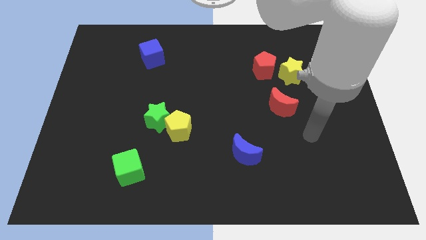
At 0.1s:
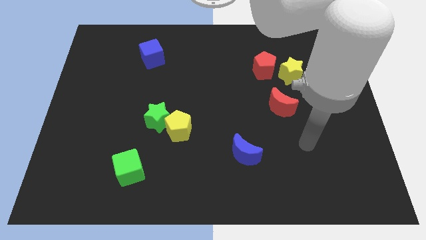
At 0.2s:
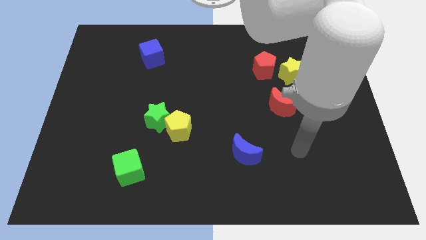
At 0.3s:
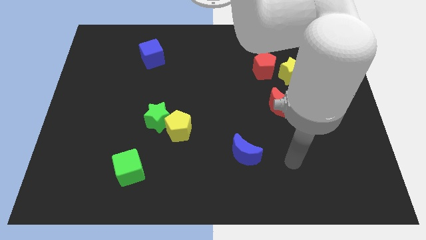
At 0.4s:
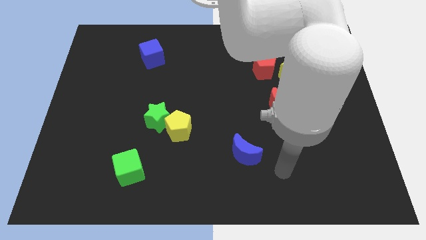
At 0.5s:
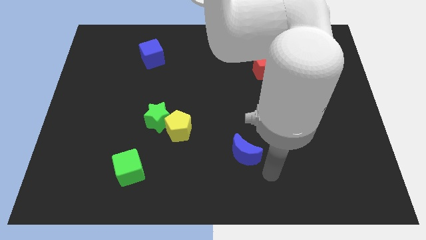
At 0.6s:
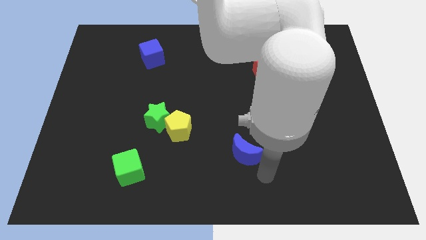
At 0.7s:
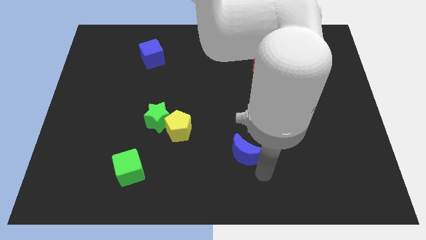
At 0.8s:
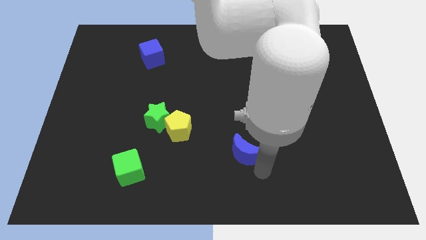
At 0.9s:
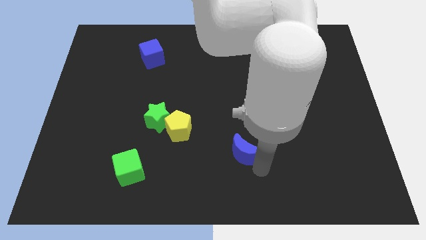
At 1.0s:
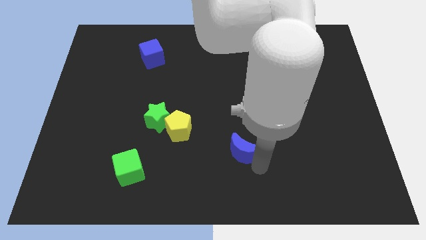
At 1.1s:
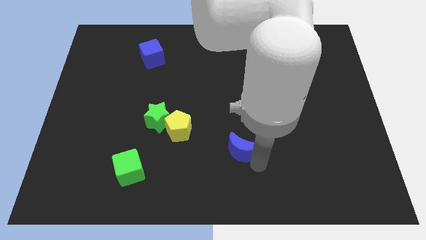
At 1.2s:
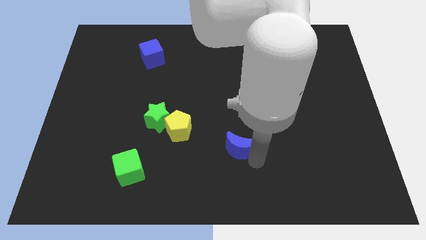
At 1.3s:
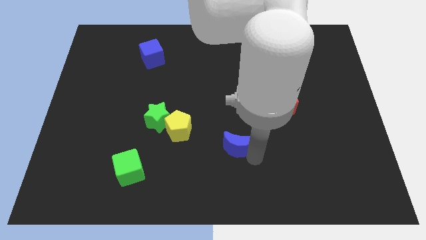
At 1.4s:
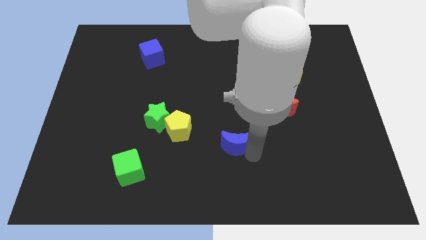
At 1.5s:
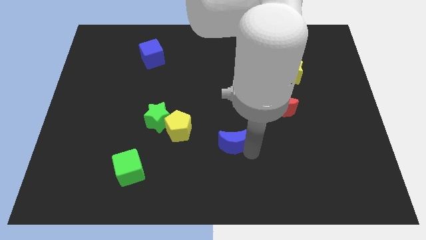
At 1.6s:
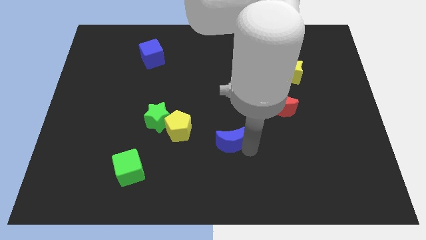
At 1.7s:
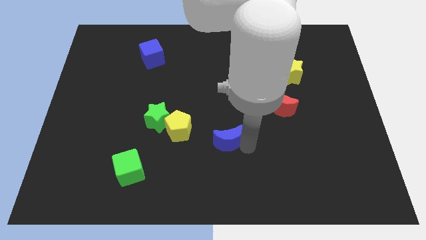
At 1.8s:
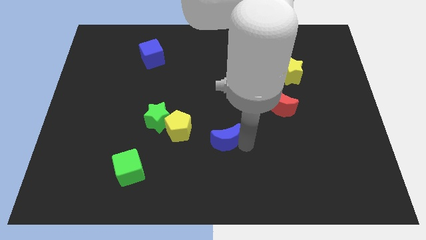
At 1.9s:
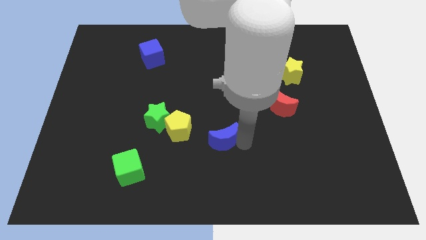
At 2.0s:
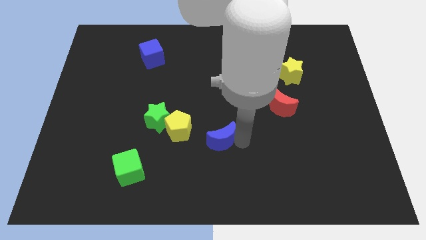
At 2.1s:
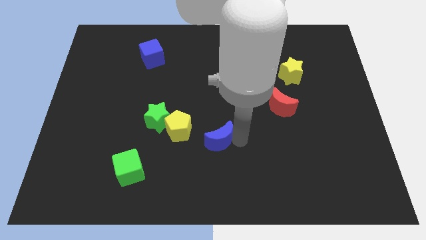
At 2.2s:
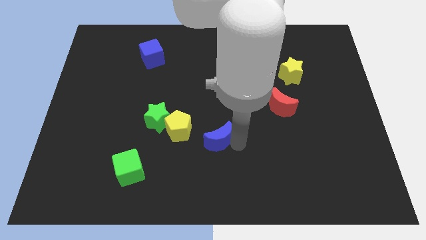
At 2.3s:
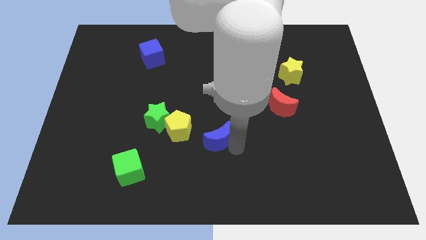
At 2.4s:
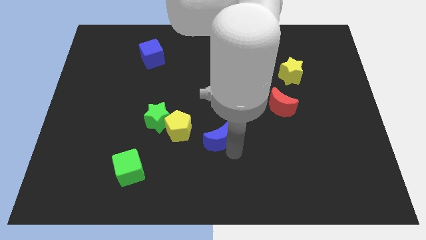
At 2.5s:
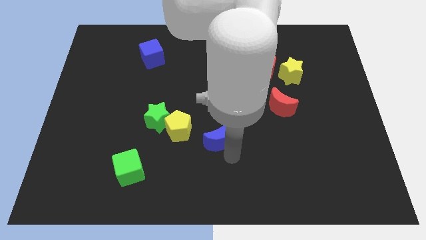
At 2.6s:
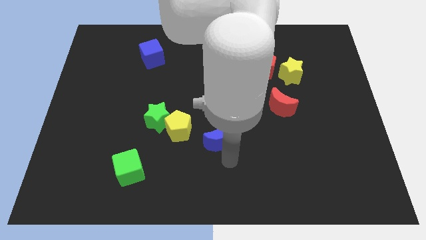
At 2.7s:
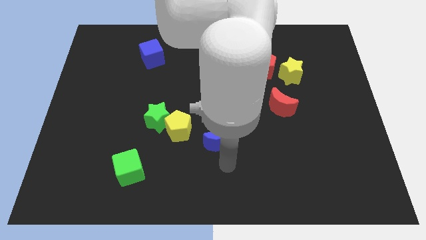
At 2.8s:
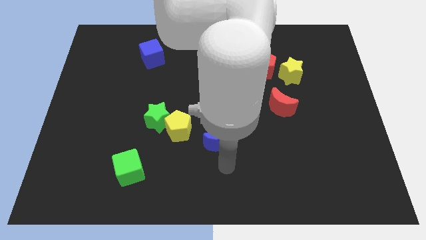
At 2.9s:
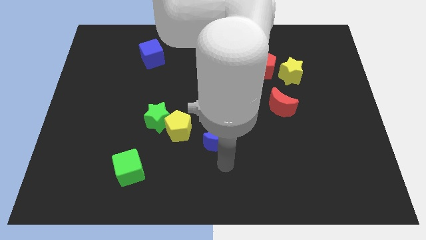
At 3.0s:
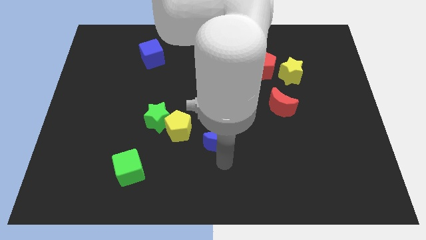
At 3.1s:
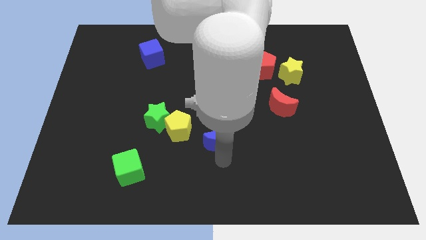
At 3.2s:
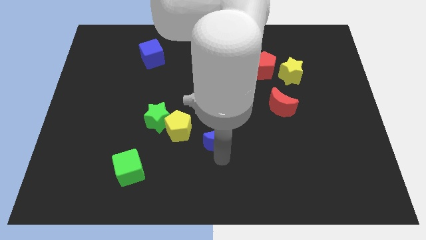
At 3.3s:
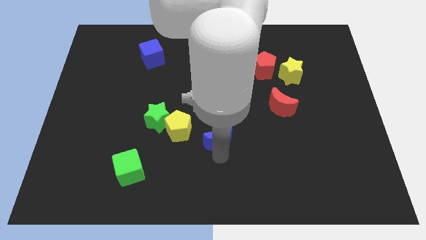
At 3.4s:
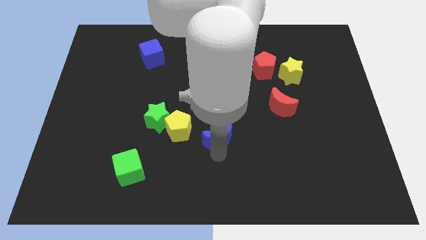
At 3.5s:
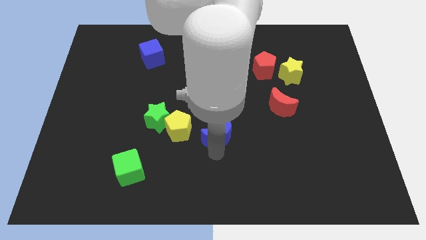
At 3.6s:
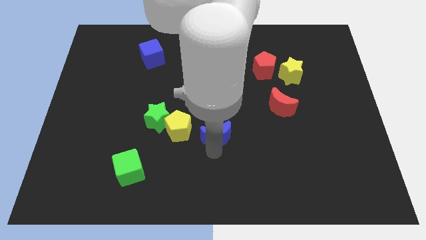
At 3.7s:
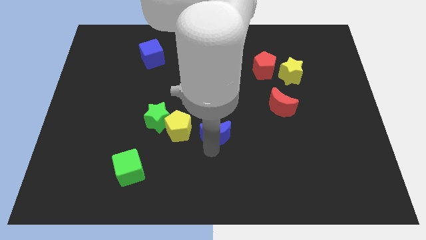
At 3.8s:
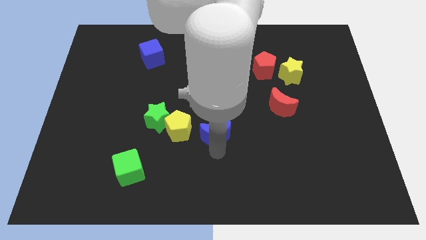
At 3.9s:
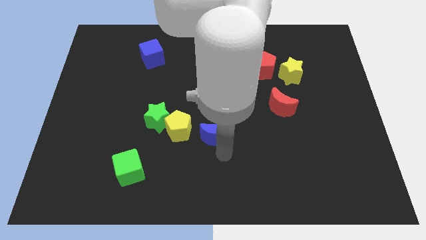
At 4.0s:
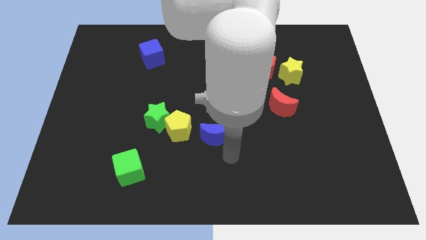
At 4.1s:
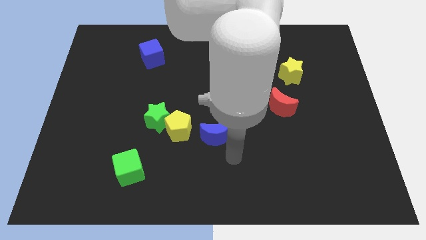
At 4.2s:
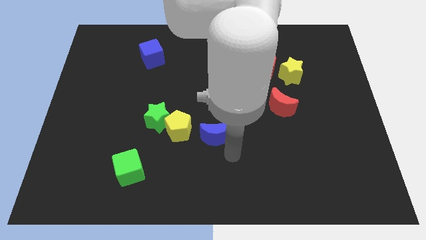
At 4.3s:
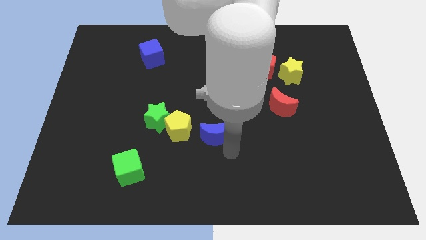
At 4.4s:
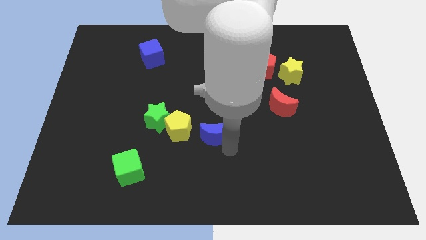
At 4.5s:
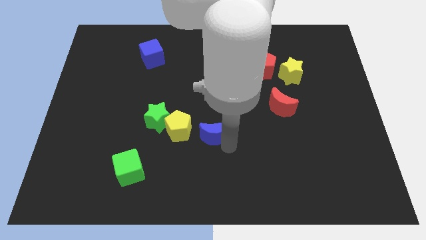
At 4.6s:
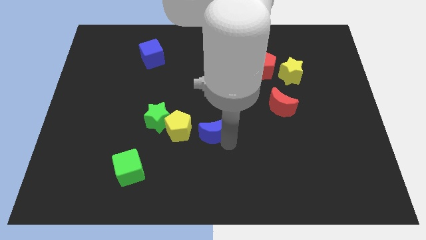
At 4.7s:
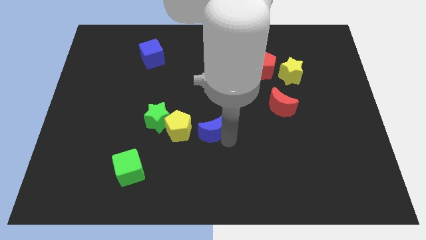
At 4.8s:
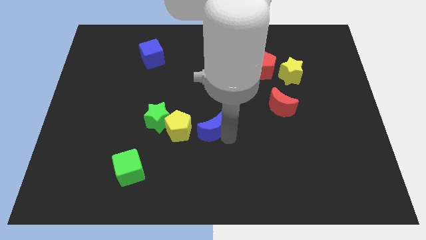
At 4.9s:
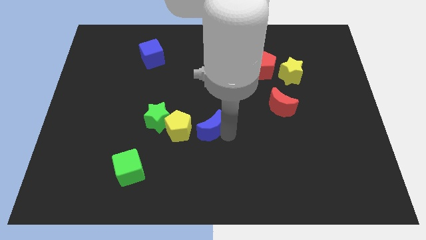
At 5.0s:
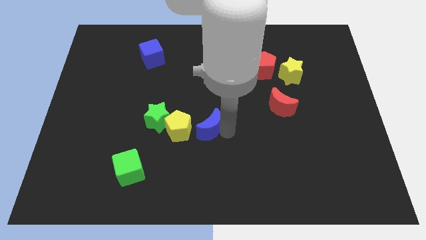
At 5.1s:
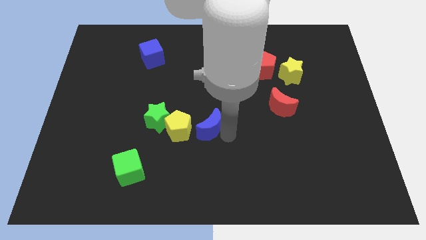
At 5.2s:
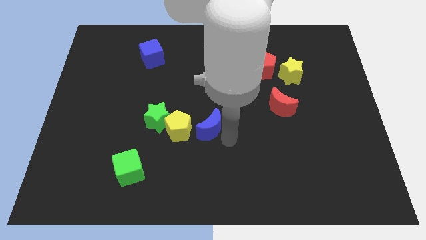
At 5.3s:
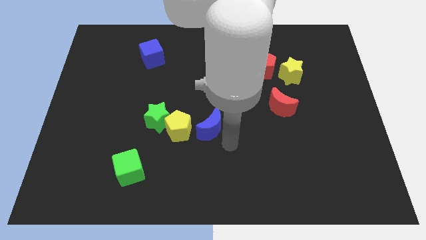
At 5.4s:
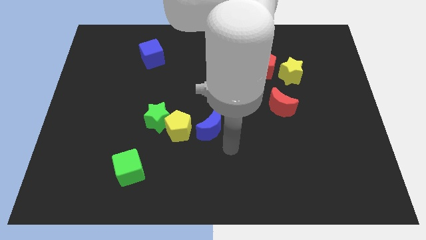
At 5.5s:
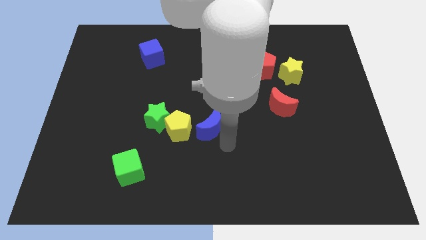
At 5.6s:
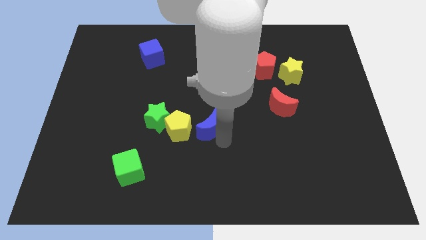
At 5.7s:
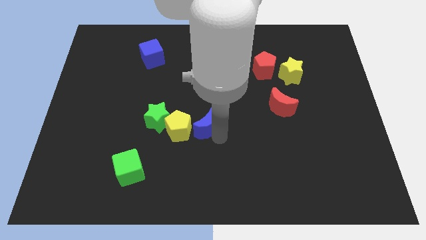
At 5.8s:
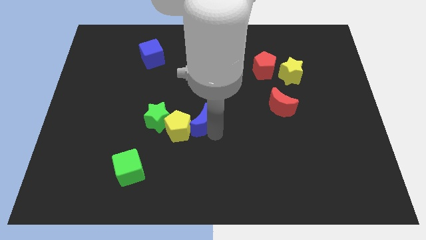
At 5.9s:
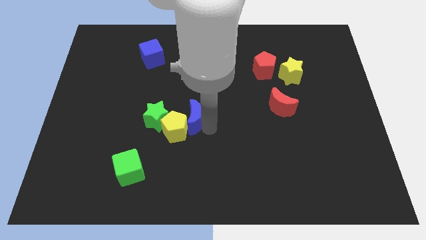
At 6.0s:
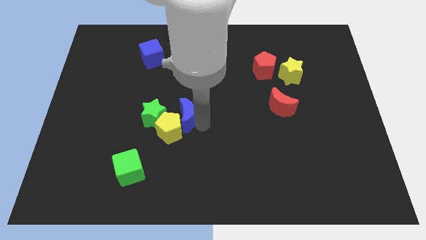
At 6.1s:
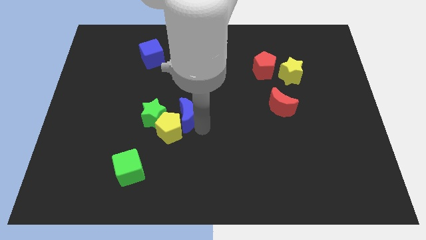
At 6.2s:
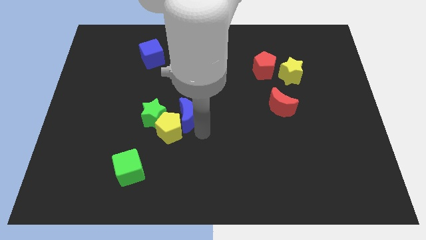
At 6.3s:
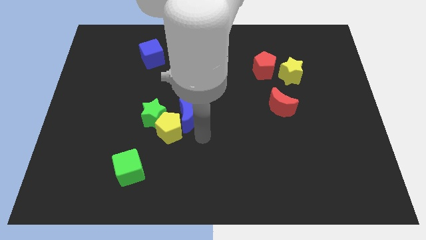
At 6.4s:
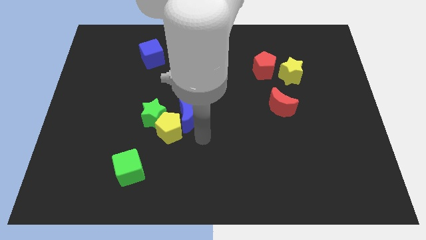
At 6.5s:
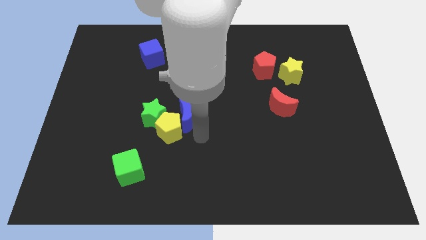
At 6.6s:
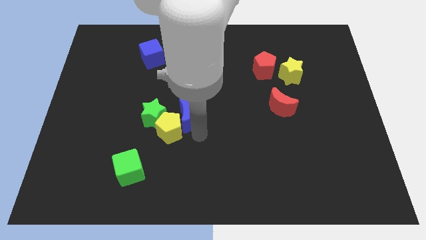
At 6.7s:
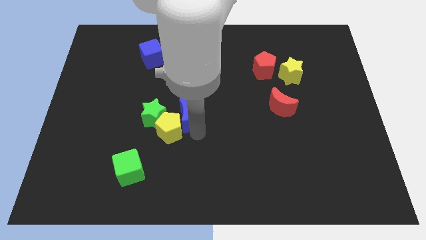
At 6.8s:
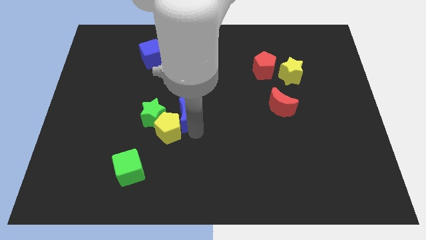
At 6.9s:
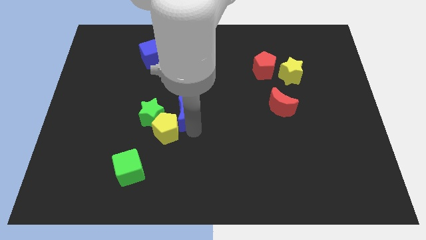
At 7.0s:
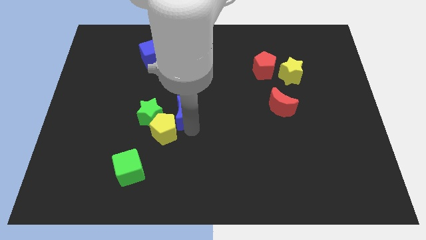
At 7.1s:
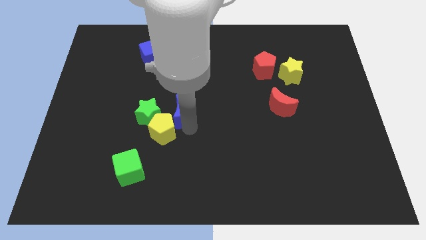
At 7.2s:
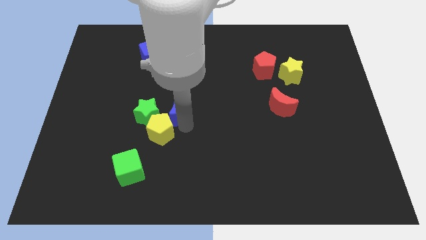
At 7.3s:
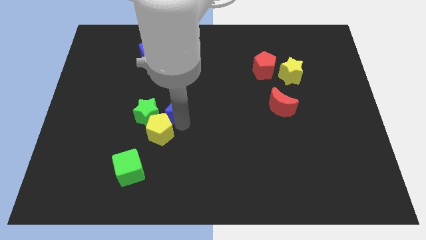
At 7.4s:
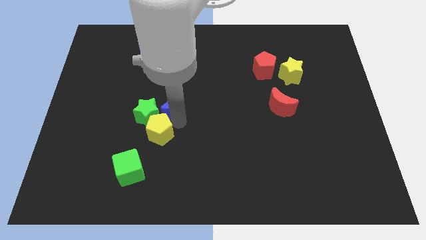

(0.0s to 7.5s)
slide the blue moon diagonally upwards and left

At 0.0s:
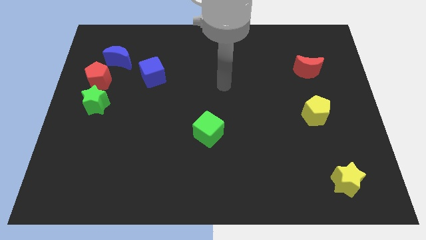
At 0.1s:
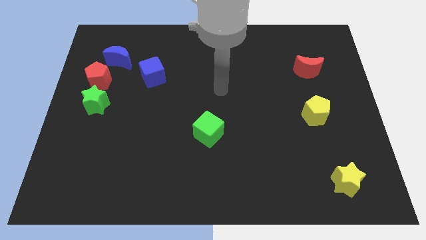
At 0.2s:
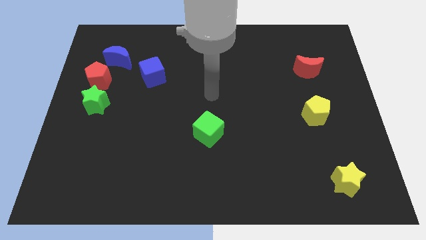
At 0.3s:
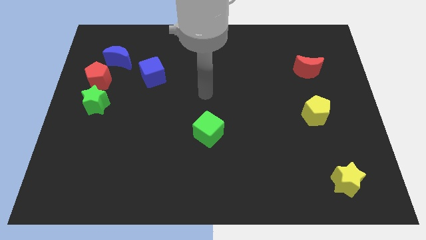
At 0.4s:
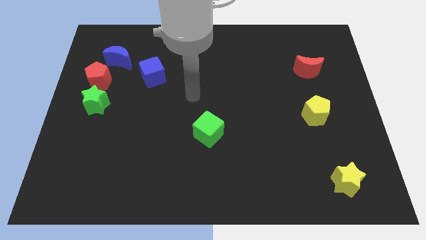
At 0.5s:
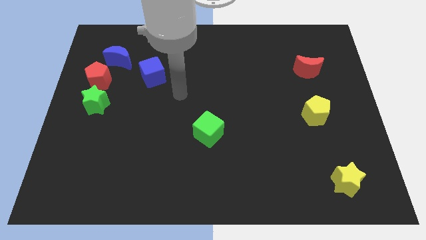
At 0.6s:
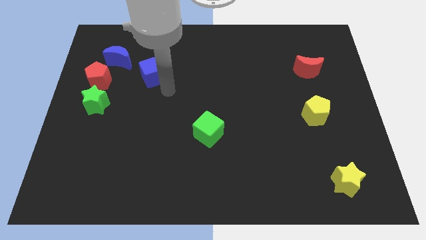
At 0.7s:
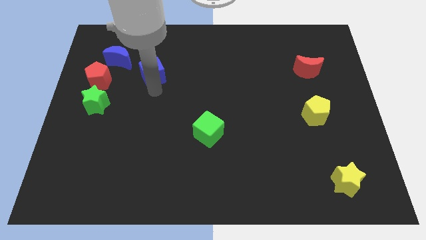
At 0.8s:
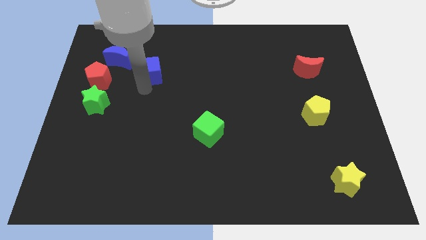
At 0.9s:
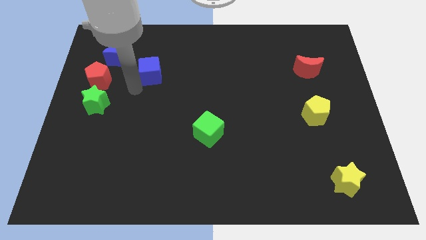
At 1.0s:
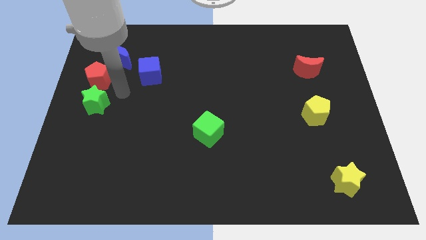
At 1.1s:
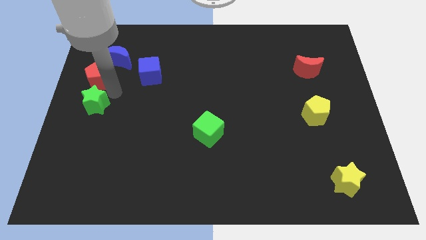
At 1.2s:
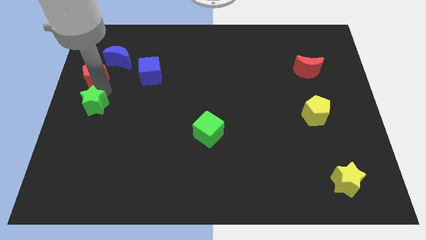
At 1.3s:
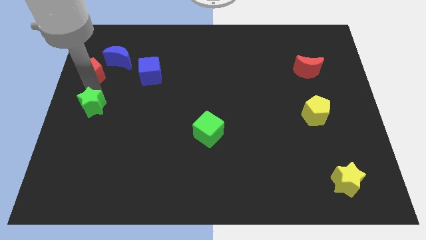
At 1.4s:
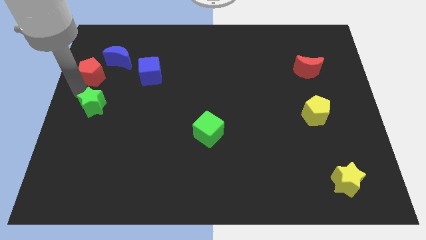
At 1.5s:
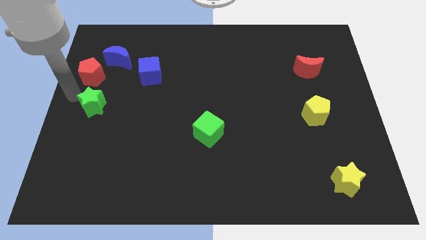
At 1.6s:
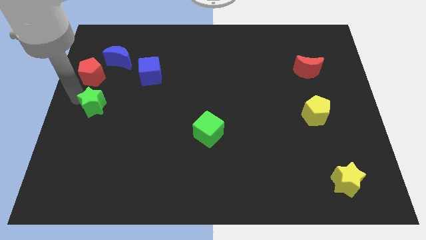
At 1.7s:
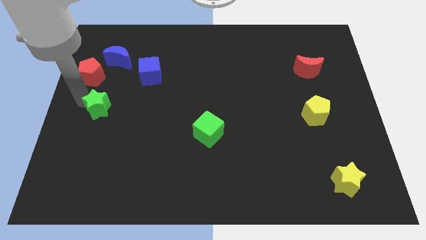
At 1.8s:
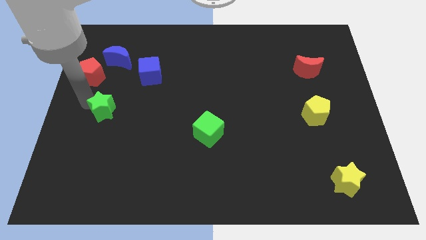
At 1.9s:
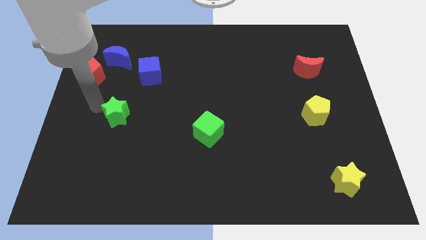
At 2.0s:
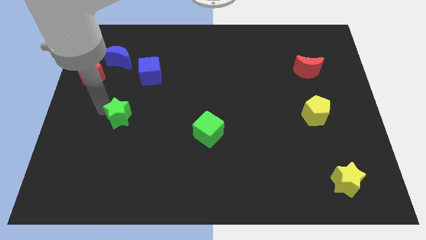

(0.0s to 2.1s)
push the green star downwards and right diagonally somewhat
